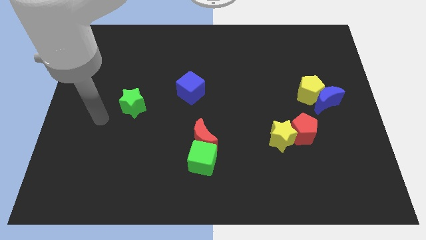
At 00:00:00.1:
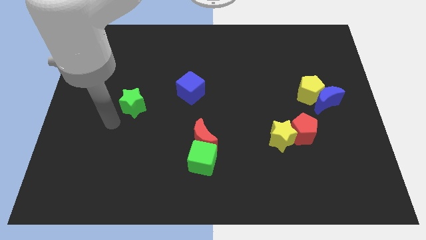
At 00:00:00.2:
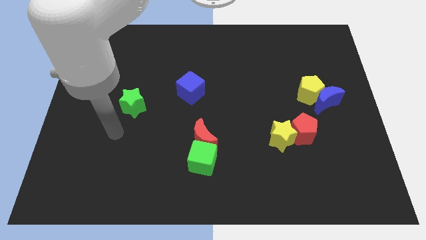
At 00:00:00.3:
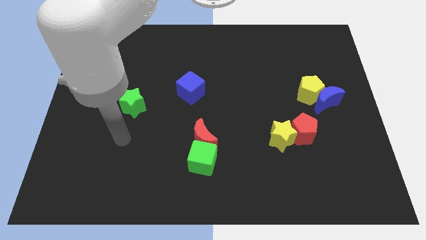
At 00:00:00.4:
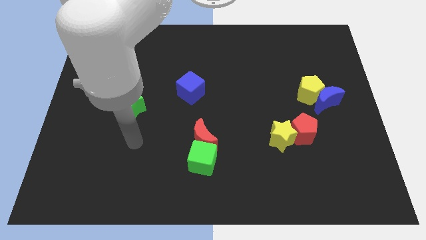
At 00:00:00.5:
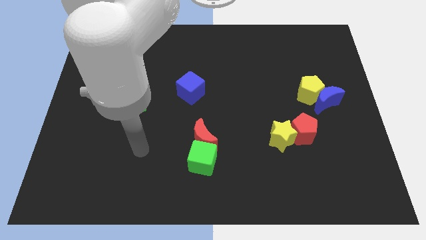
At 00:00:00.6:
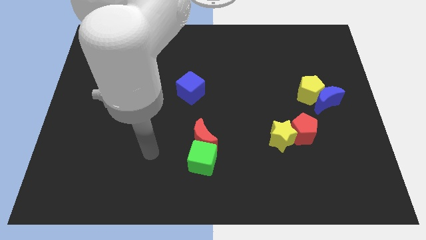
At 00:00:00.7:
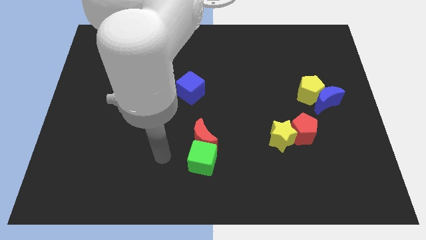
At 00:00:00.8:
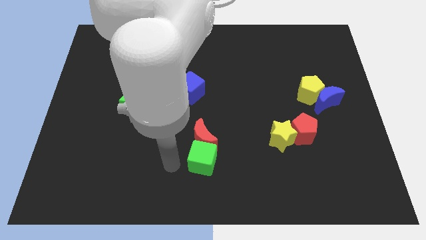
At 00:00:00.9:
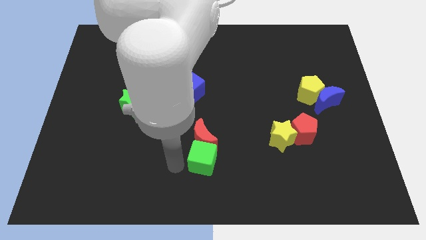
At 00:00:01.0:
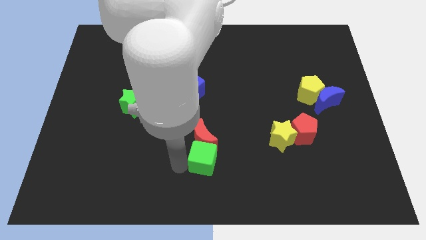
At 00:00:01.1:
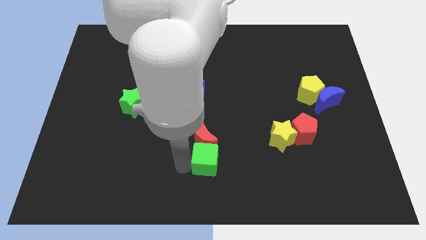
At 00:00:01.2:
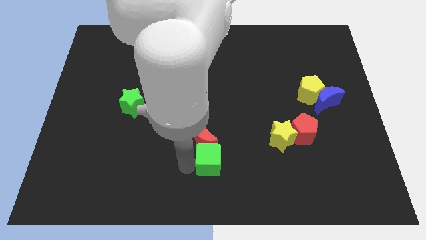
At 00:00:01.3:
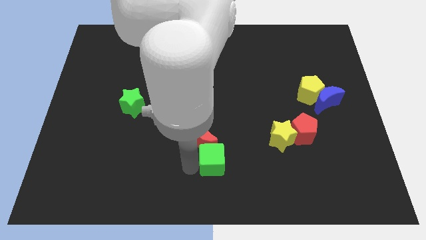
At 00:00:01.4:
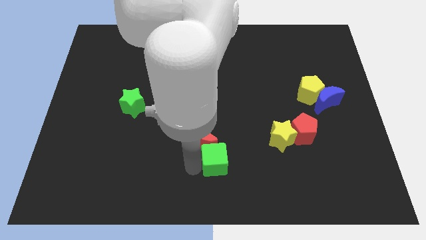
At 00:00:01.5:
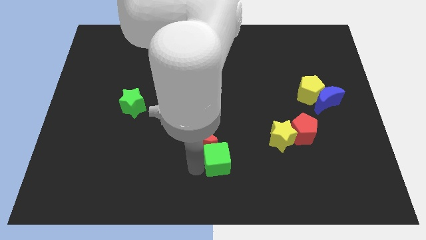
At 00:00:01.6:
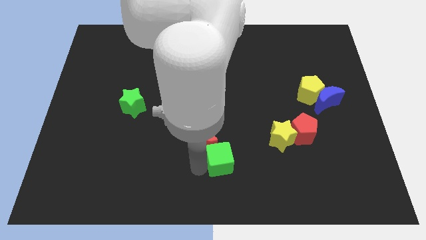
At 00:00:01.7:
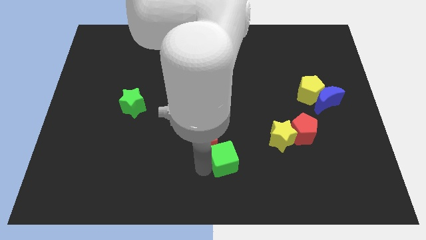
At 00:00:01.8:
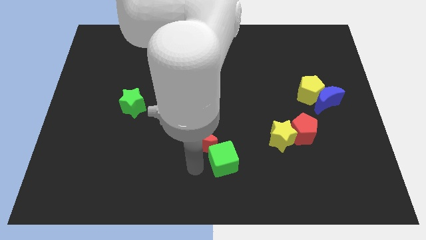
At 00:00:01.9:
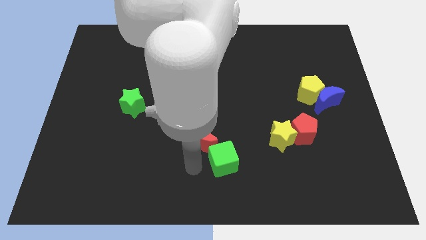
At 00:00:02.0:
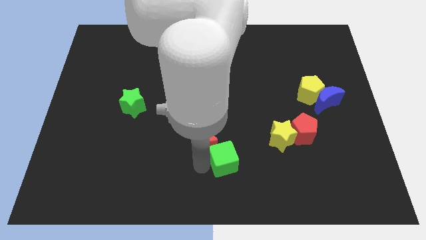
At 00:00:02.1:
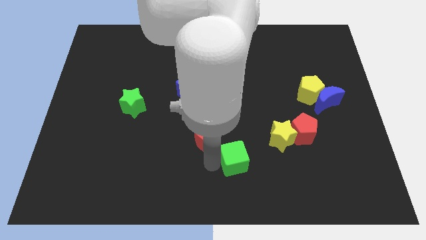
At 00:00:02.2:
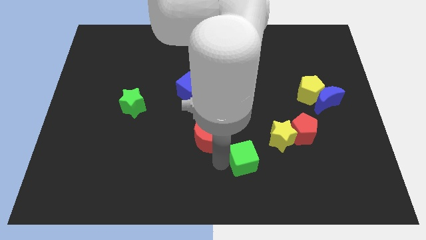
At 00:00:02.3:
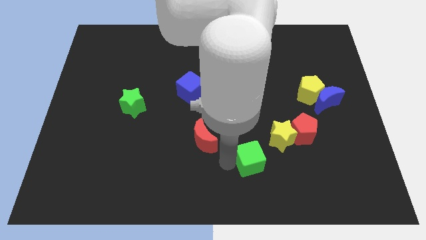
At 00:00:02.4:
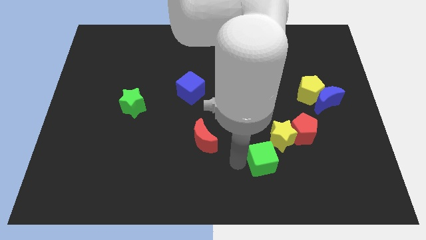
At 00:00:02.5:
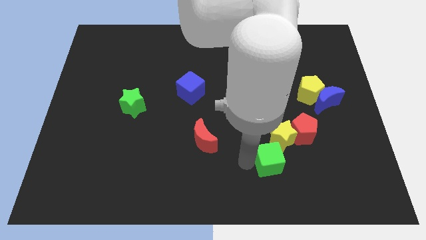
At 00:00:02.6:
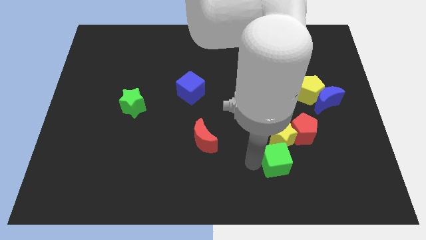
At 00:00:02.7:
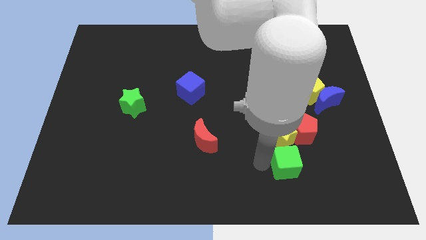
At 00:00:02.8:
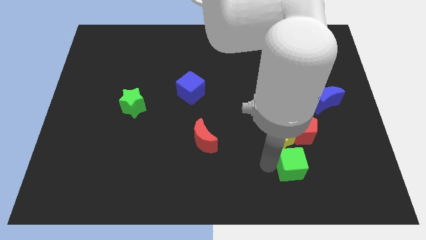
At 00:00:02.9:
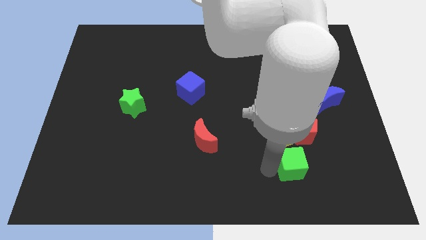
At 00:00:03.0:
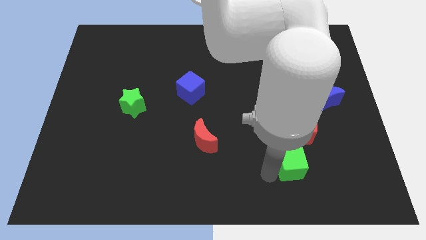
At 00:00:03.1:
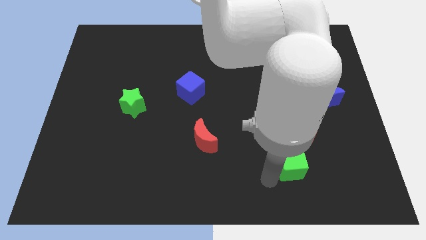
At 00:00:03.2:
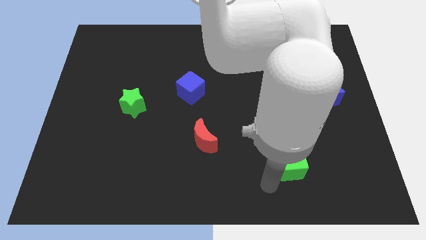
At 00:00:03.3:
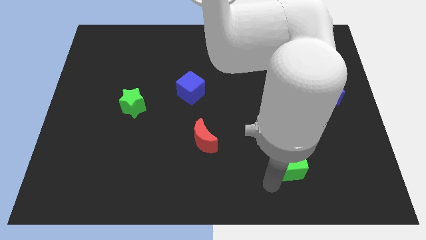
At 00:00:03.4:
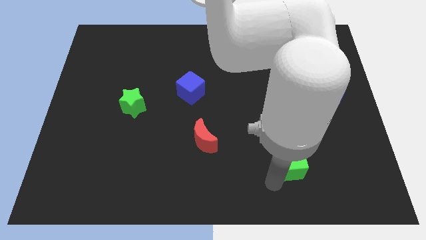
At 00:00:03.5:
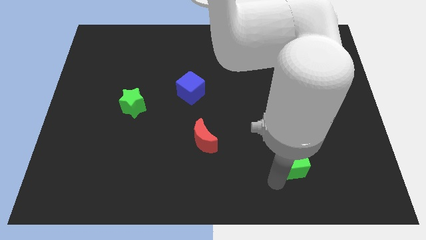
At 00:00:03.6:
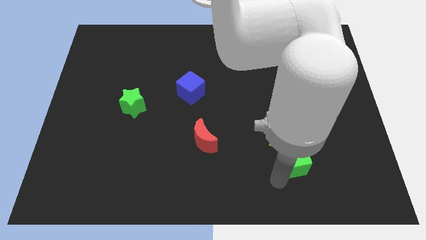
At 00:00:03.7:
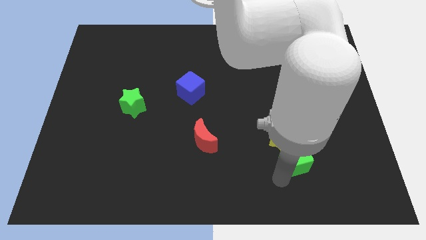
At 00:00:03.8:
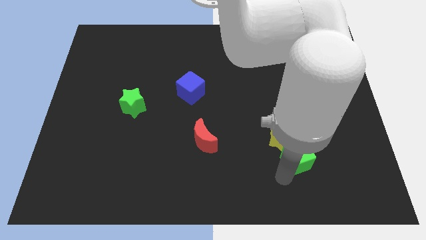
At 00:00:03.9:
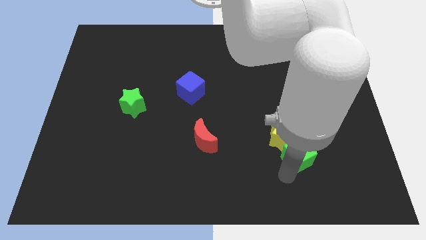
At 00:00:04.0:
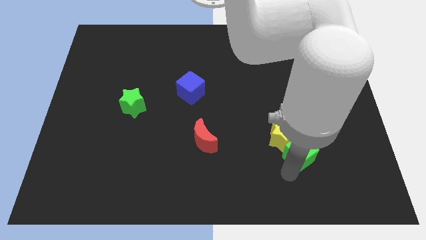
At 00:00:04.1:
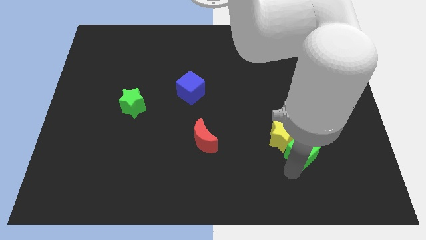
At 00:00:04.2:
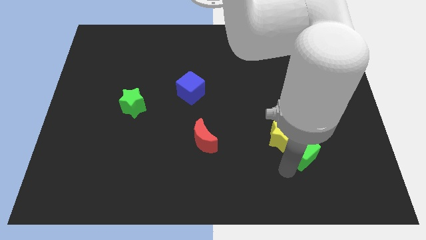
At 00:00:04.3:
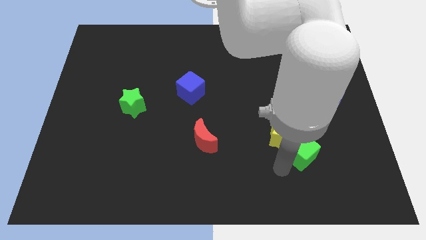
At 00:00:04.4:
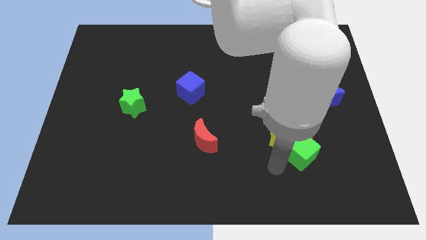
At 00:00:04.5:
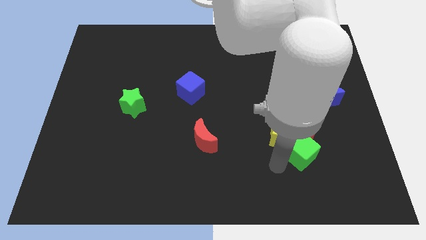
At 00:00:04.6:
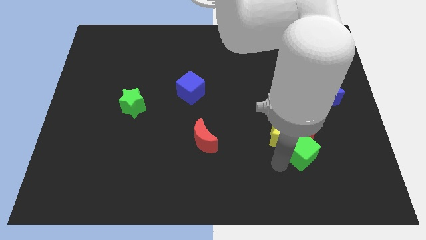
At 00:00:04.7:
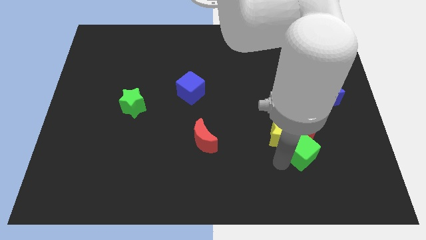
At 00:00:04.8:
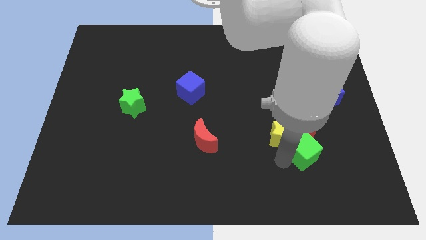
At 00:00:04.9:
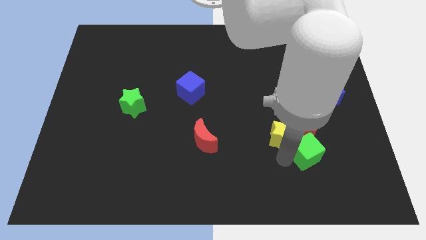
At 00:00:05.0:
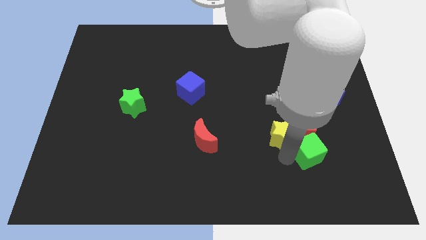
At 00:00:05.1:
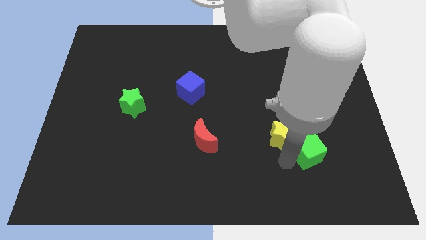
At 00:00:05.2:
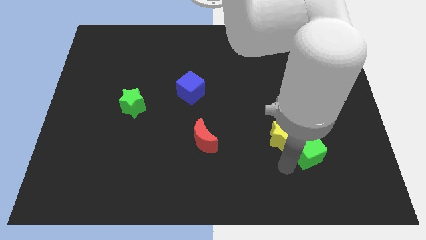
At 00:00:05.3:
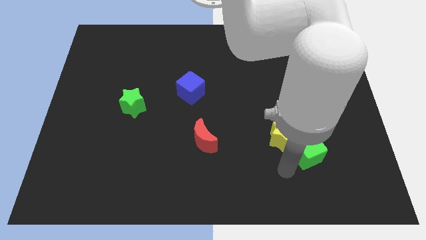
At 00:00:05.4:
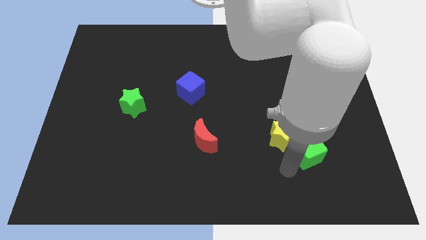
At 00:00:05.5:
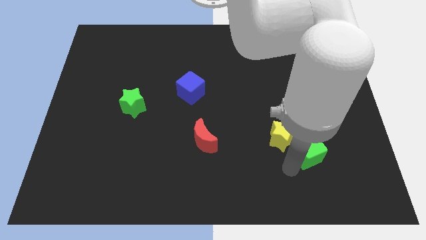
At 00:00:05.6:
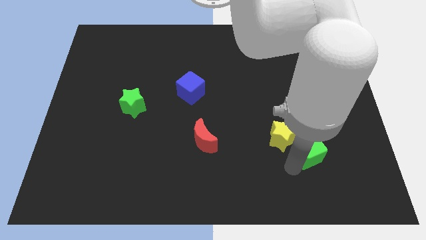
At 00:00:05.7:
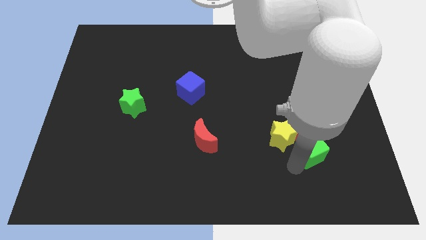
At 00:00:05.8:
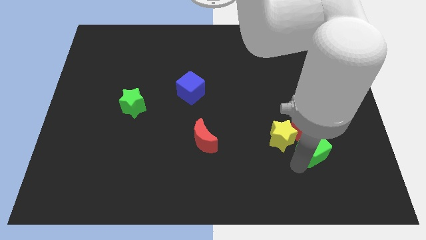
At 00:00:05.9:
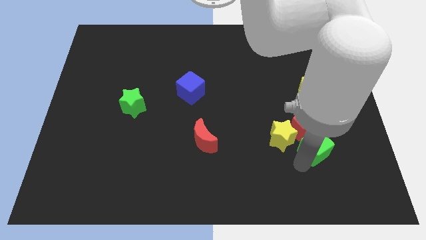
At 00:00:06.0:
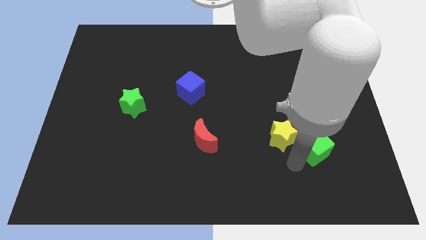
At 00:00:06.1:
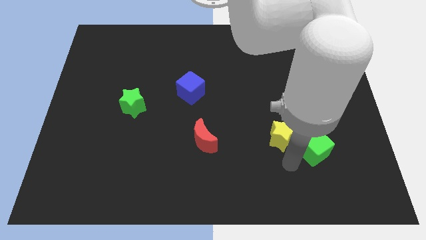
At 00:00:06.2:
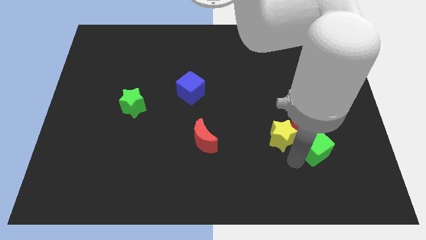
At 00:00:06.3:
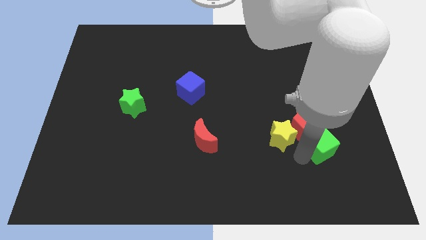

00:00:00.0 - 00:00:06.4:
push the green cube to the bottom of the blue moon
